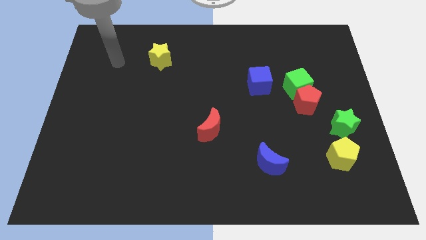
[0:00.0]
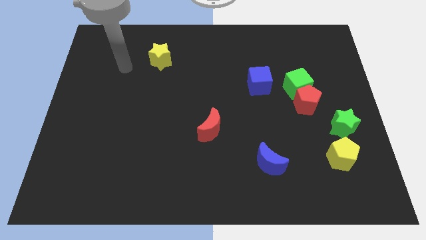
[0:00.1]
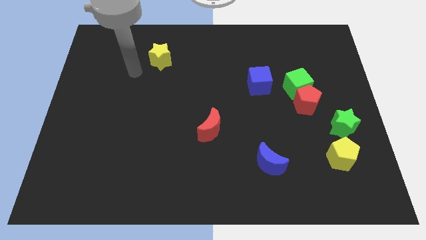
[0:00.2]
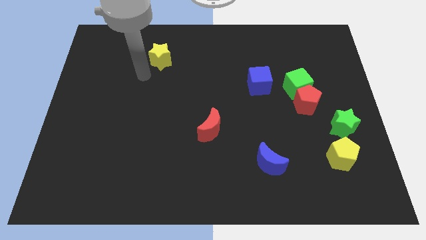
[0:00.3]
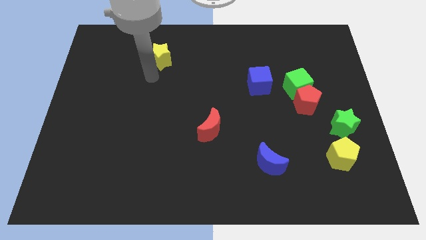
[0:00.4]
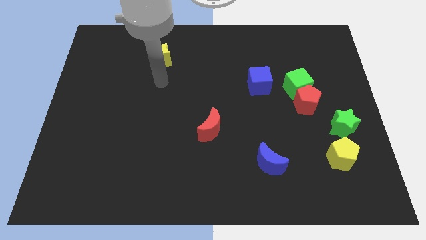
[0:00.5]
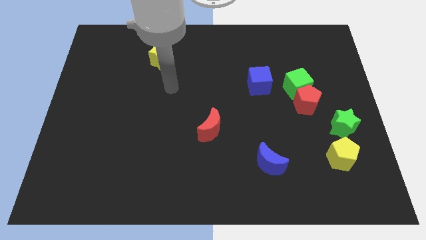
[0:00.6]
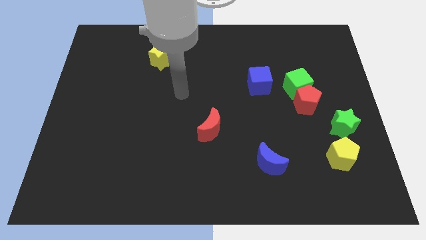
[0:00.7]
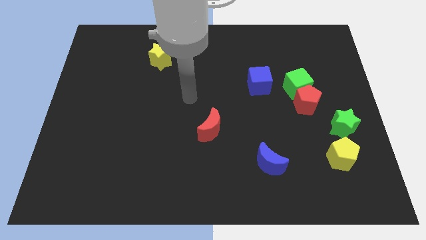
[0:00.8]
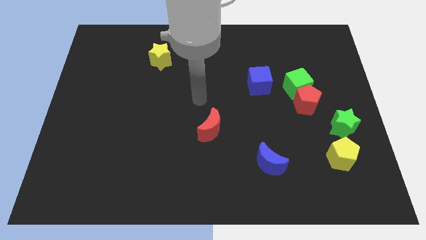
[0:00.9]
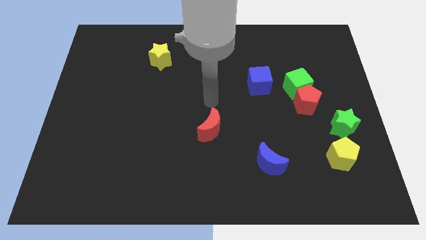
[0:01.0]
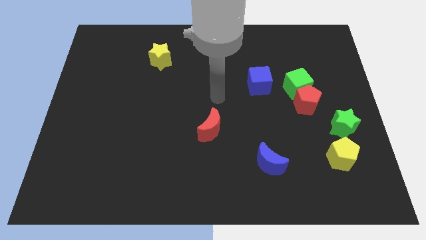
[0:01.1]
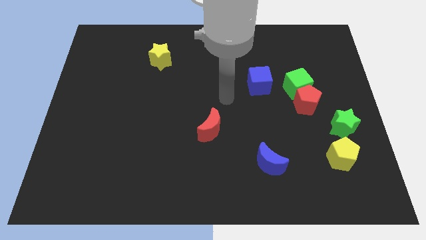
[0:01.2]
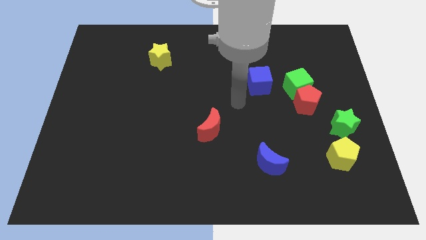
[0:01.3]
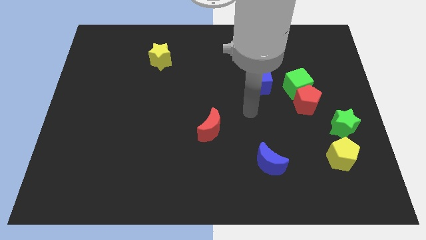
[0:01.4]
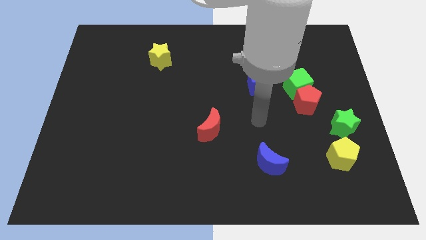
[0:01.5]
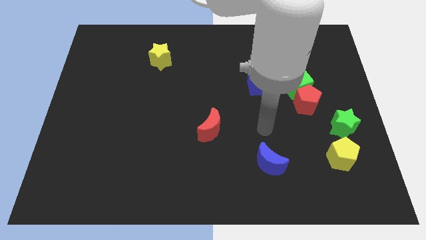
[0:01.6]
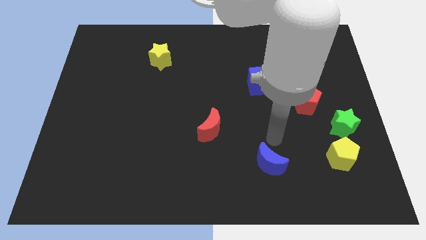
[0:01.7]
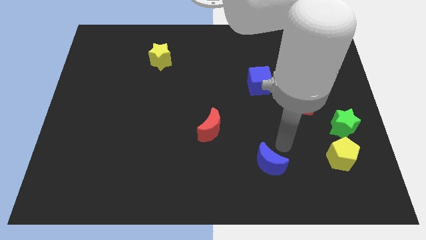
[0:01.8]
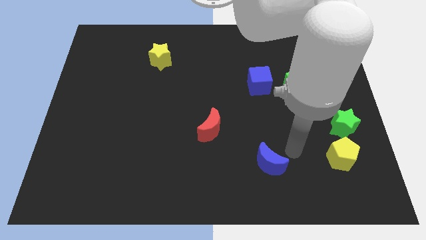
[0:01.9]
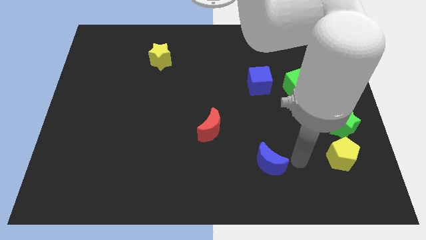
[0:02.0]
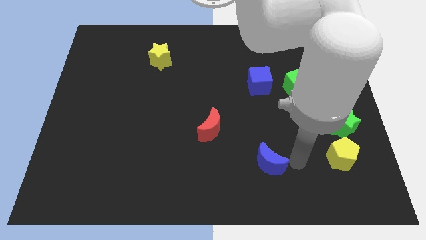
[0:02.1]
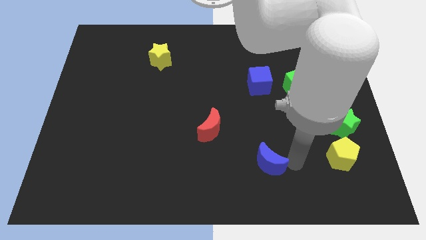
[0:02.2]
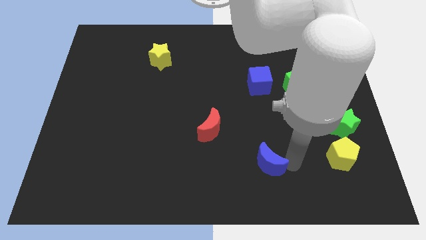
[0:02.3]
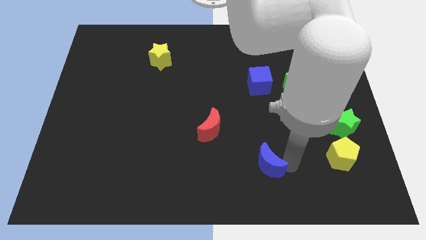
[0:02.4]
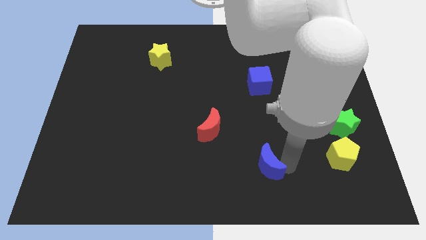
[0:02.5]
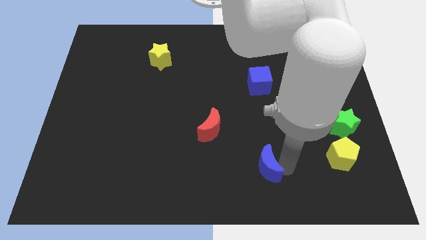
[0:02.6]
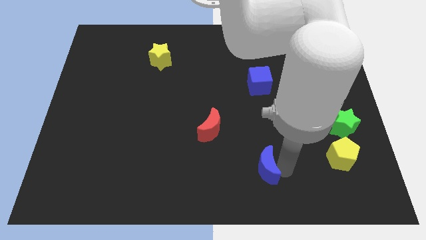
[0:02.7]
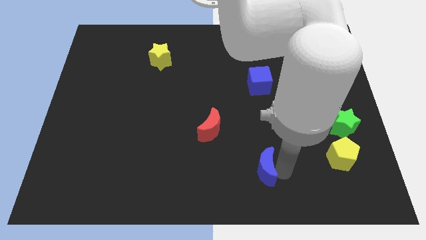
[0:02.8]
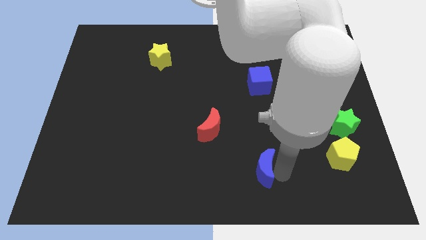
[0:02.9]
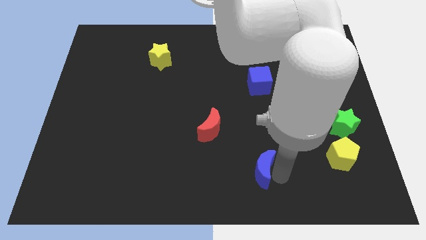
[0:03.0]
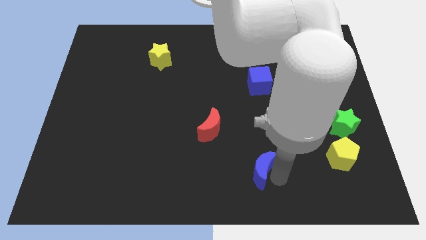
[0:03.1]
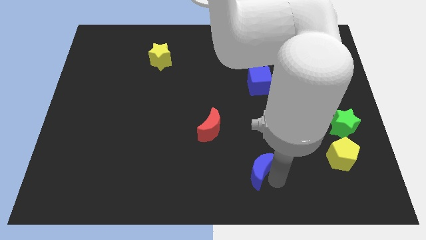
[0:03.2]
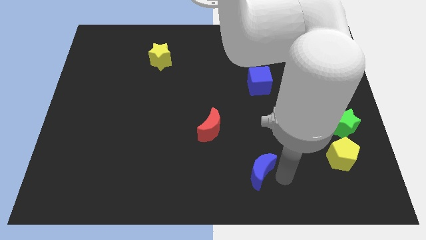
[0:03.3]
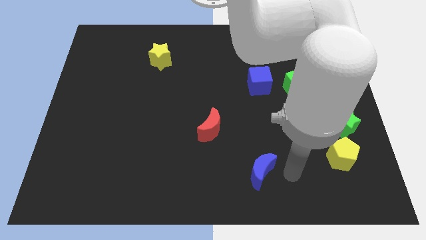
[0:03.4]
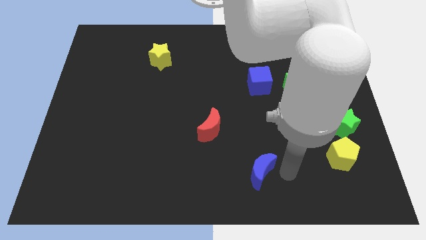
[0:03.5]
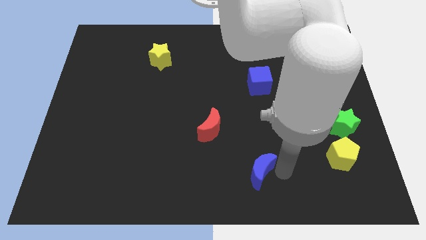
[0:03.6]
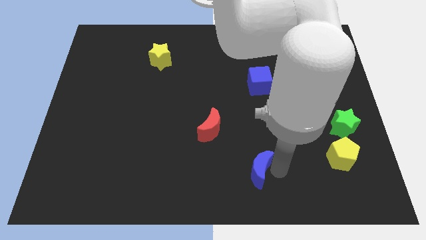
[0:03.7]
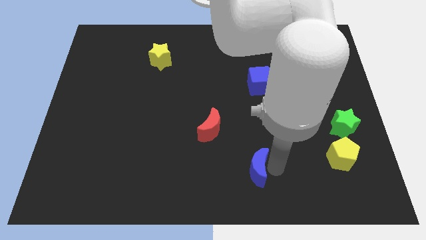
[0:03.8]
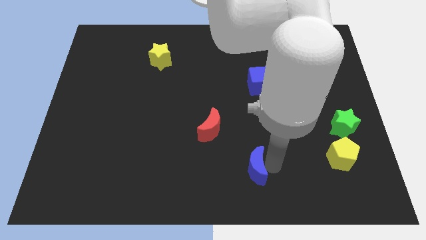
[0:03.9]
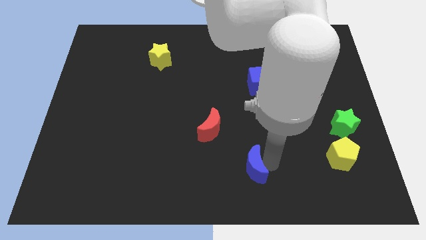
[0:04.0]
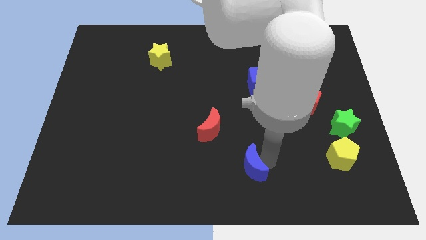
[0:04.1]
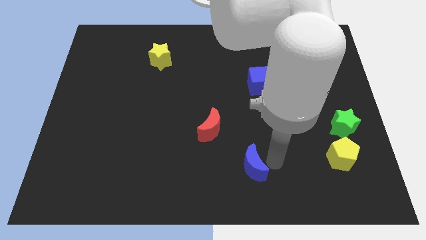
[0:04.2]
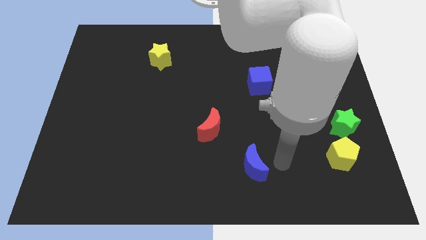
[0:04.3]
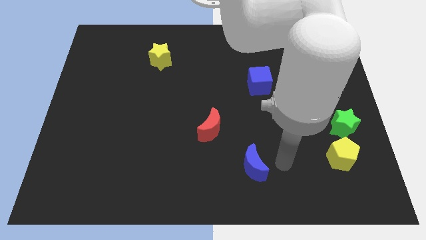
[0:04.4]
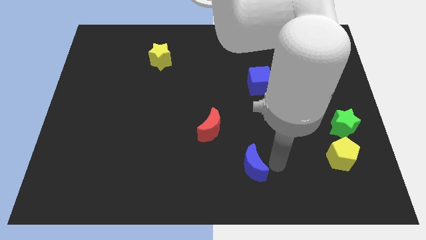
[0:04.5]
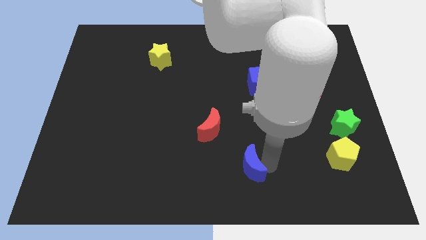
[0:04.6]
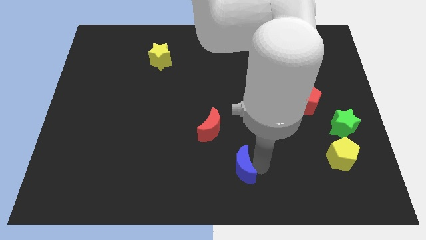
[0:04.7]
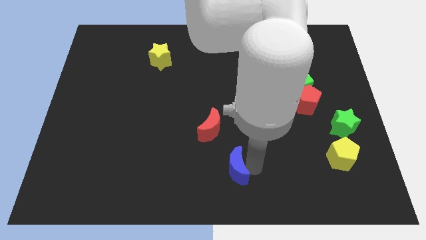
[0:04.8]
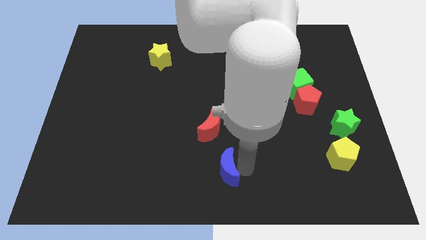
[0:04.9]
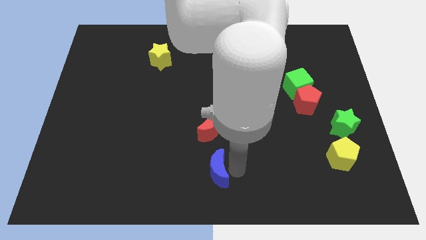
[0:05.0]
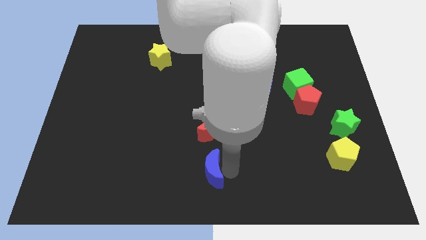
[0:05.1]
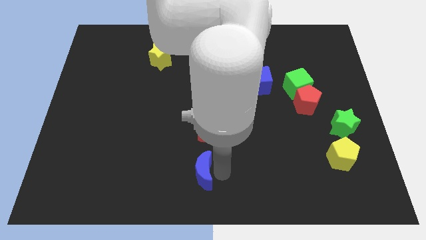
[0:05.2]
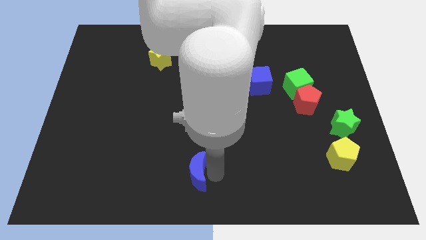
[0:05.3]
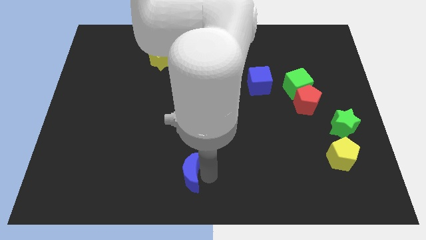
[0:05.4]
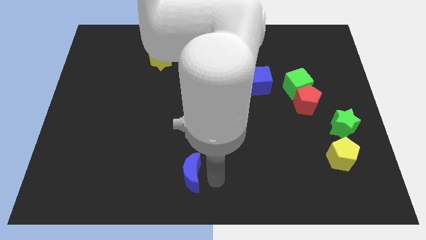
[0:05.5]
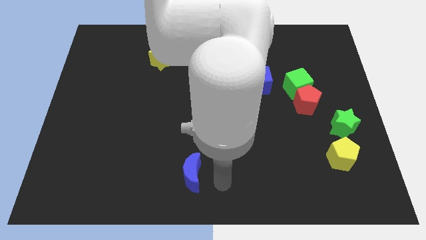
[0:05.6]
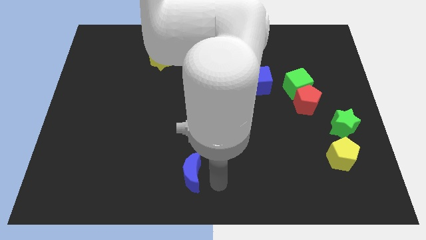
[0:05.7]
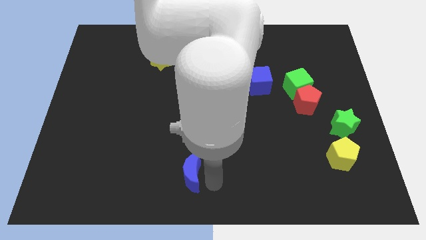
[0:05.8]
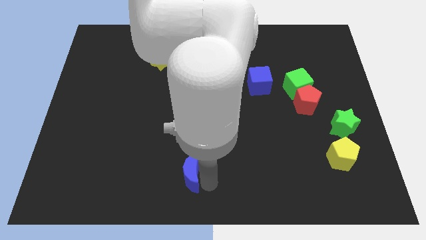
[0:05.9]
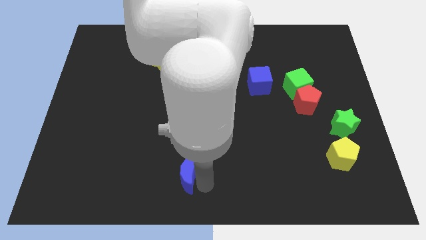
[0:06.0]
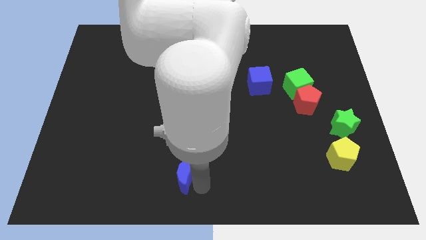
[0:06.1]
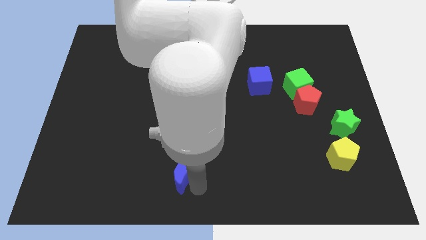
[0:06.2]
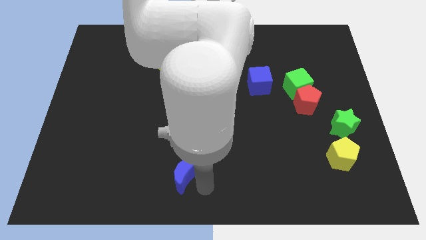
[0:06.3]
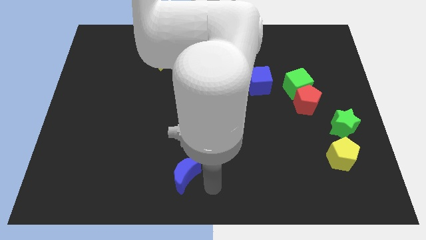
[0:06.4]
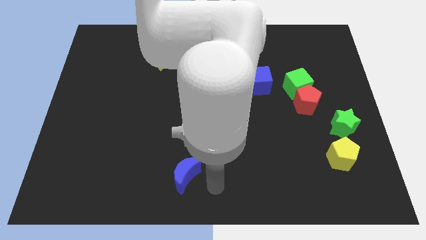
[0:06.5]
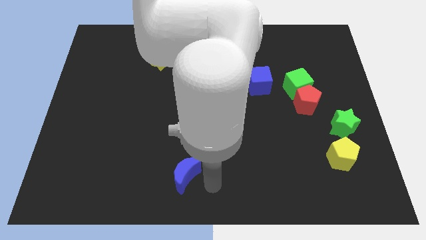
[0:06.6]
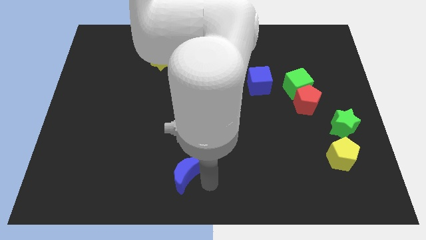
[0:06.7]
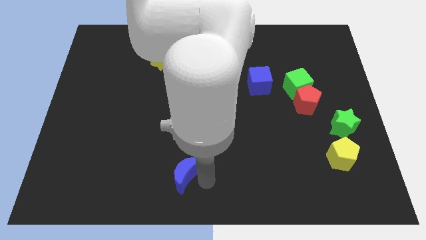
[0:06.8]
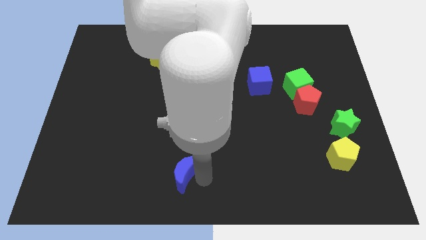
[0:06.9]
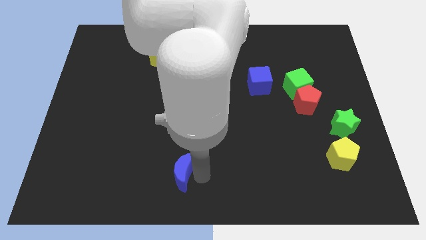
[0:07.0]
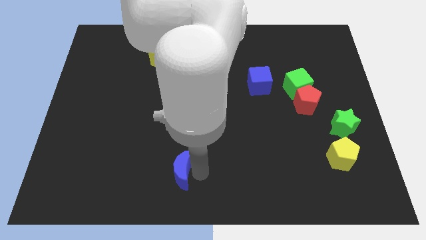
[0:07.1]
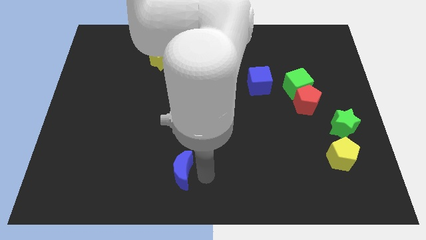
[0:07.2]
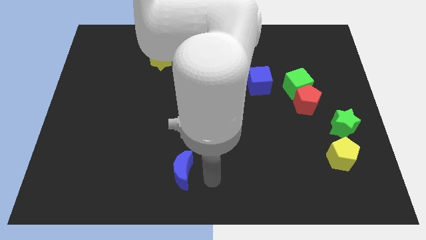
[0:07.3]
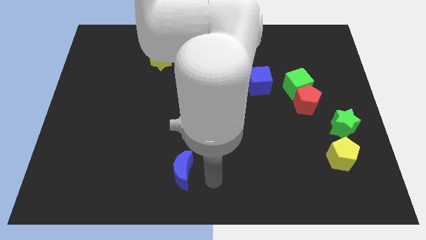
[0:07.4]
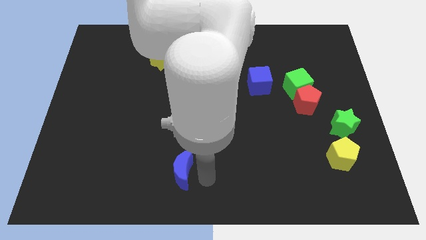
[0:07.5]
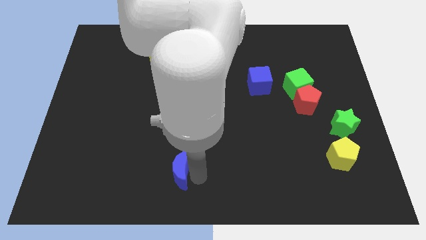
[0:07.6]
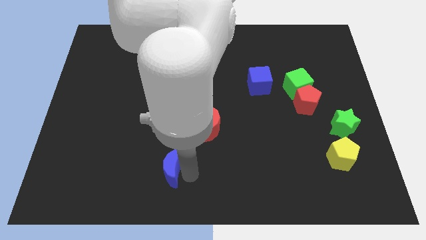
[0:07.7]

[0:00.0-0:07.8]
push the blue moon left
